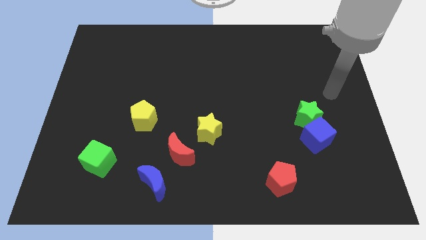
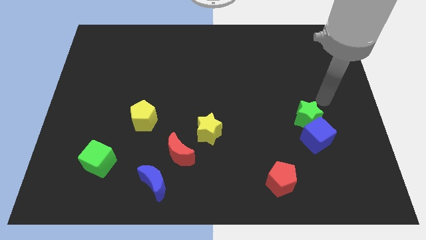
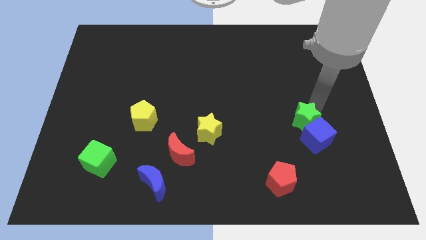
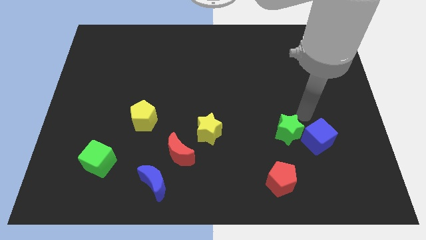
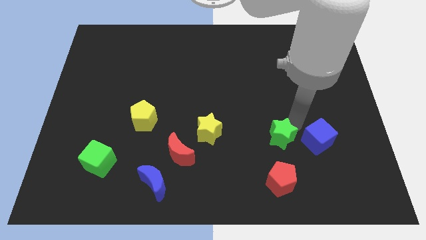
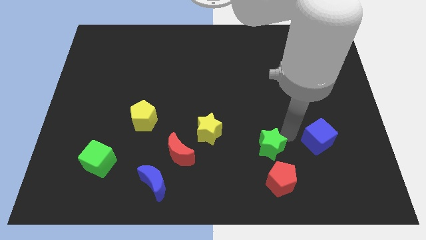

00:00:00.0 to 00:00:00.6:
separate the blue cube from the green star

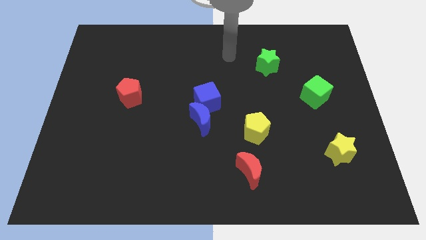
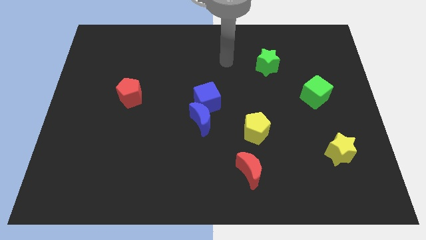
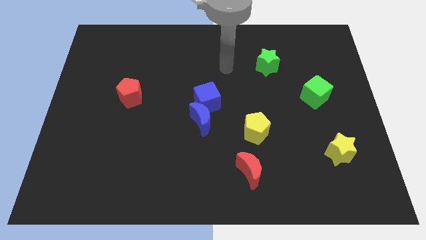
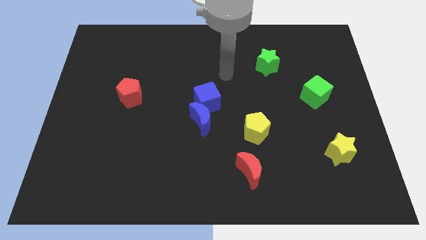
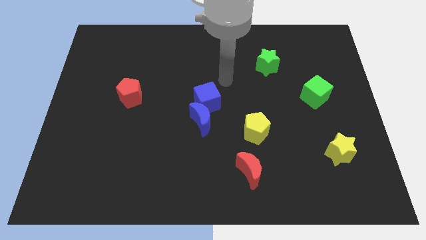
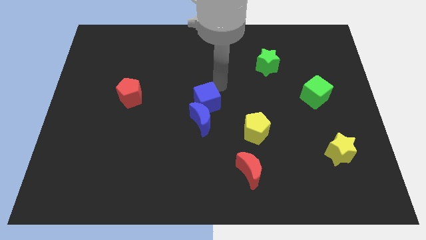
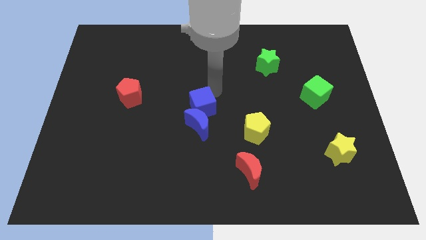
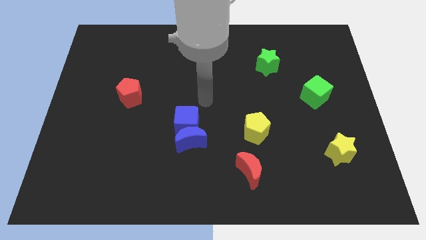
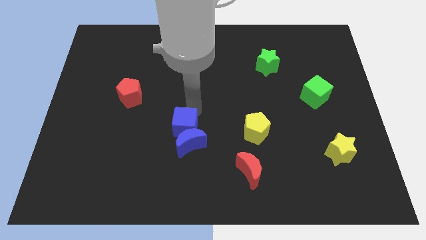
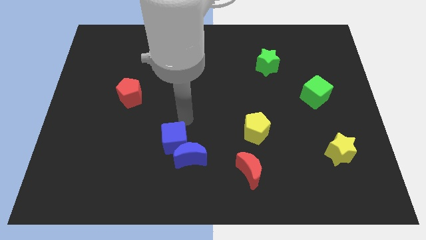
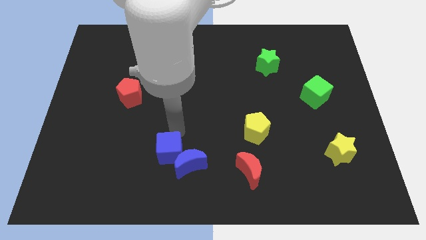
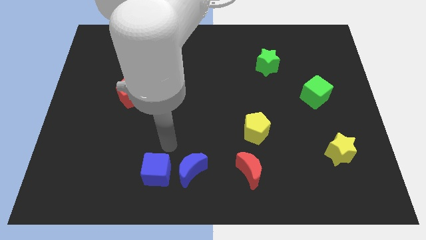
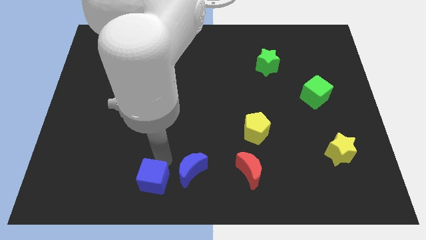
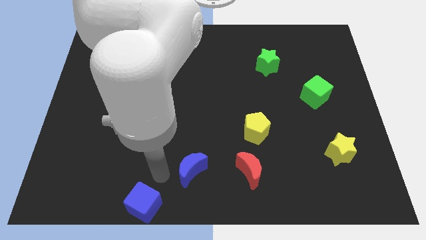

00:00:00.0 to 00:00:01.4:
move the blue moon away from the blue cube

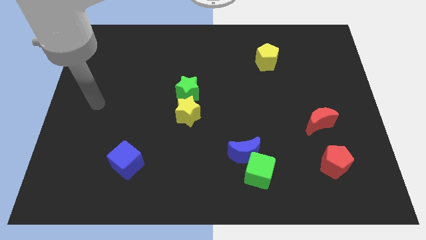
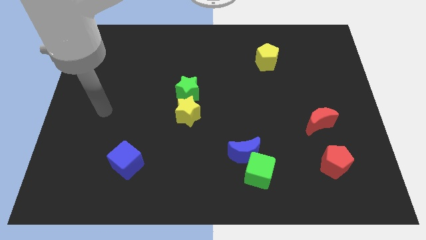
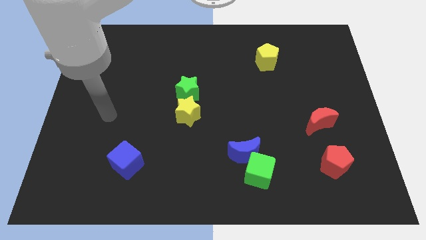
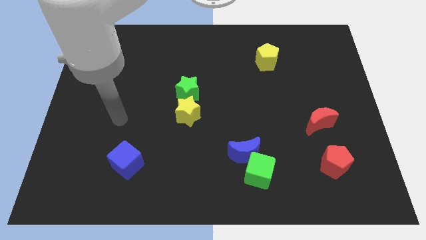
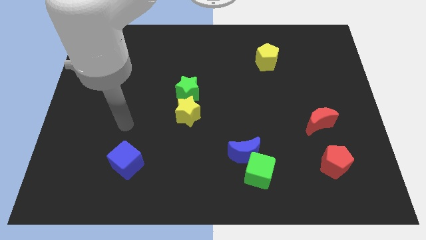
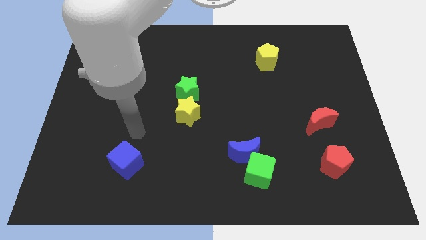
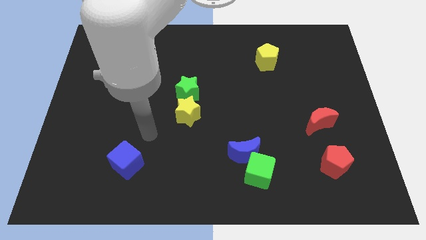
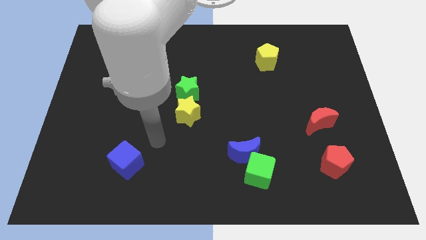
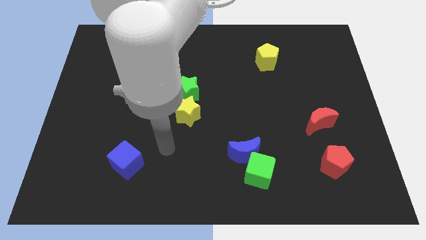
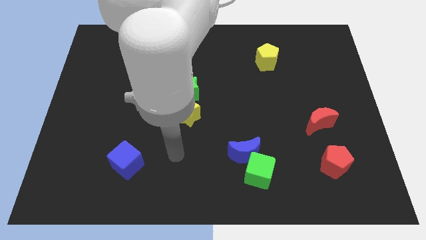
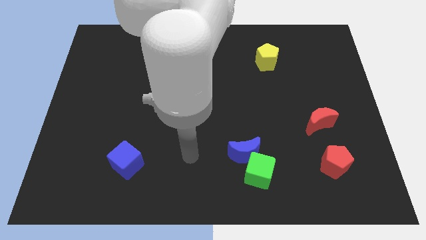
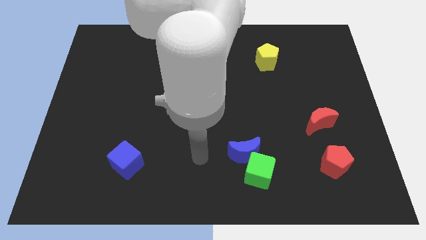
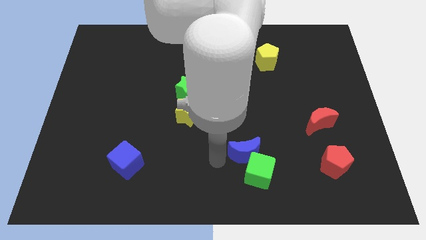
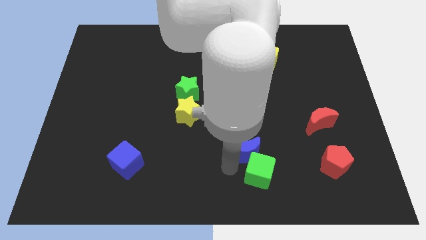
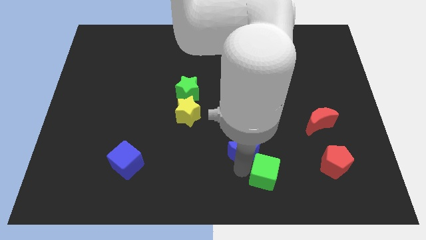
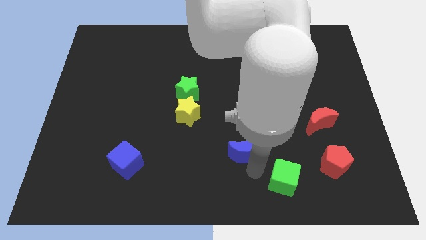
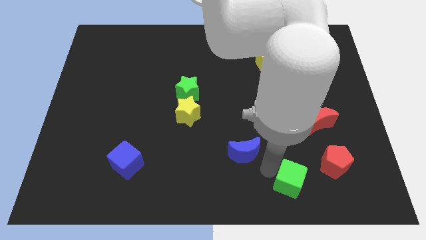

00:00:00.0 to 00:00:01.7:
separate the blue moon from the green cube

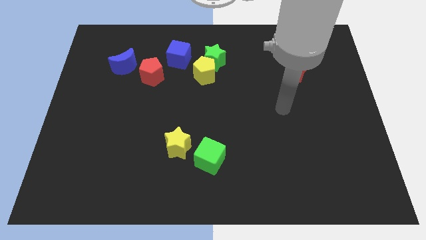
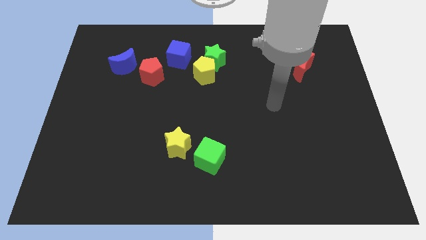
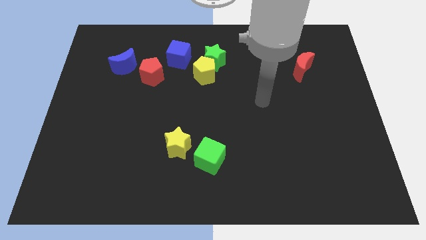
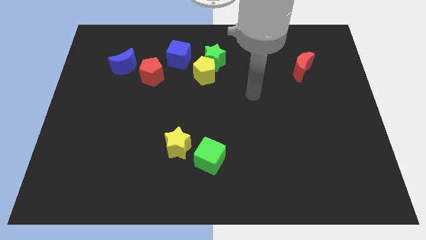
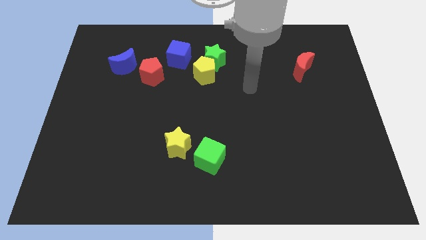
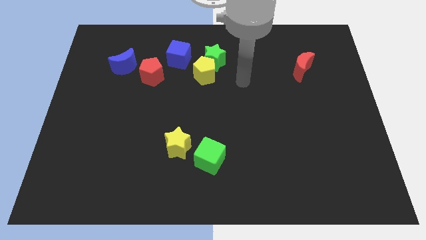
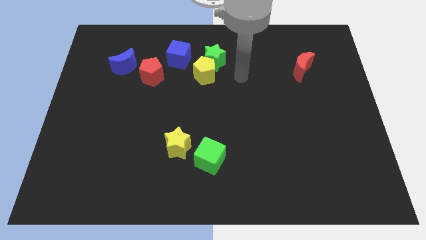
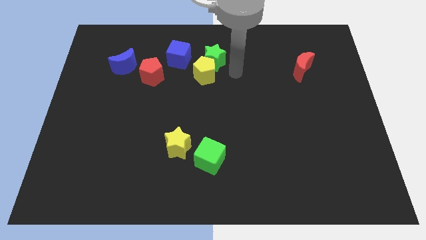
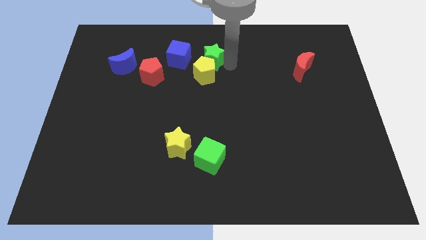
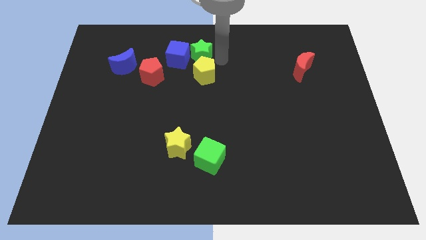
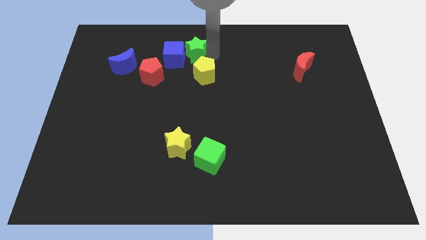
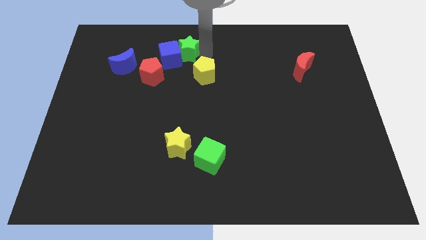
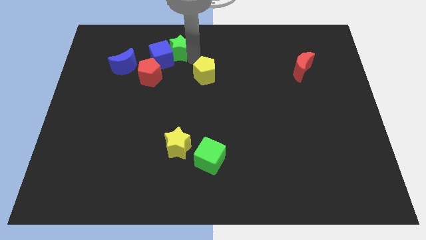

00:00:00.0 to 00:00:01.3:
pull the yellow pentagon apart from the green star and blue cube

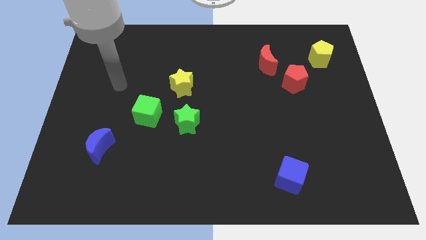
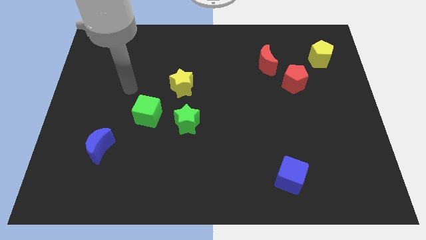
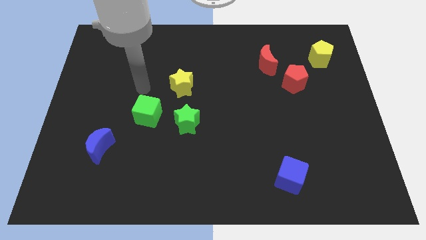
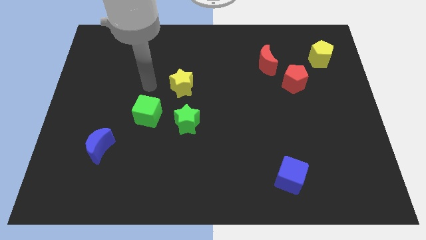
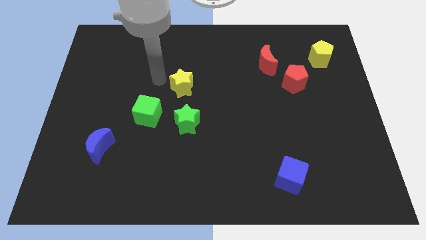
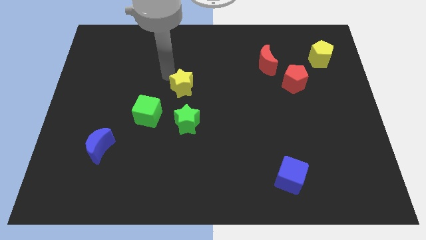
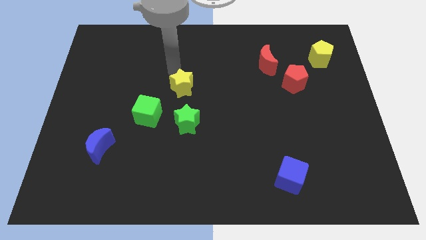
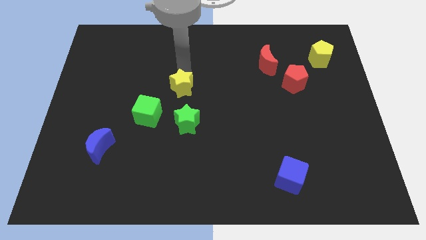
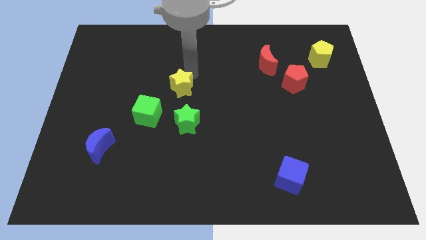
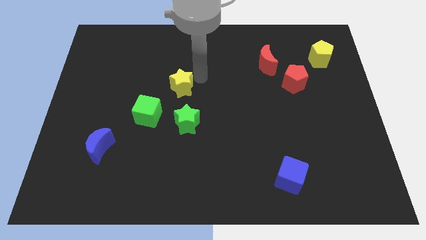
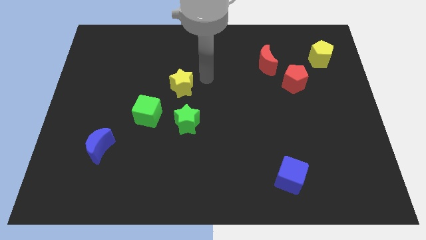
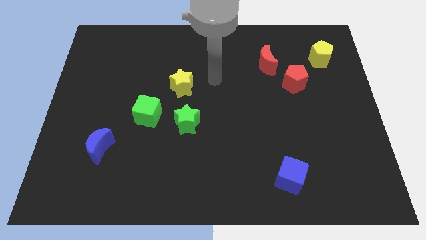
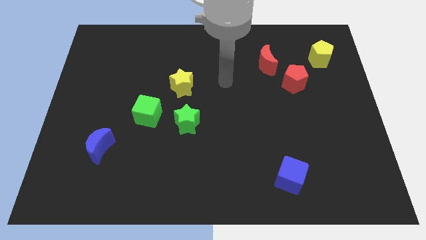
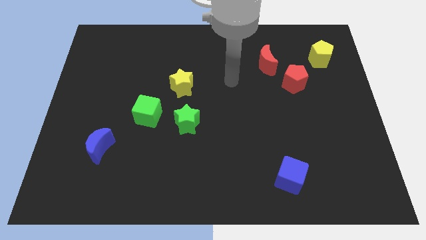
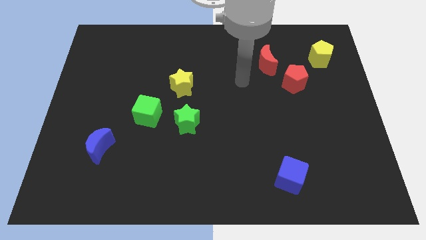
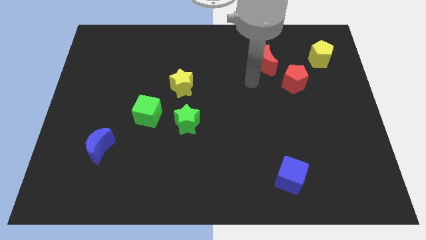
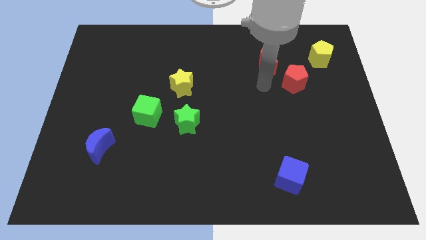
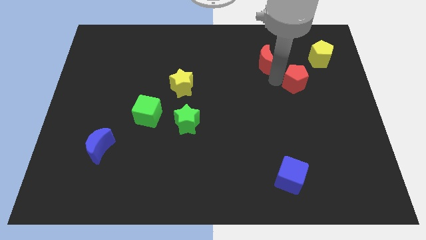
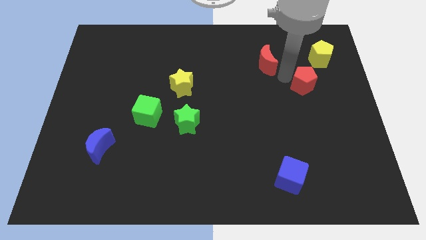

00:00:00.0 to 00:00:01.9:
move the red moon away from the red pentagon

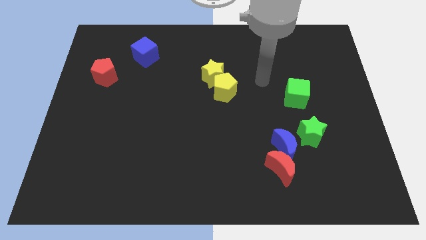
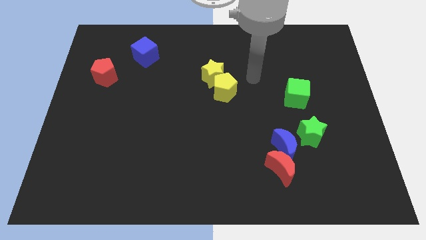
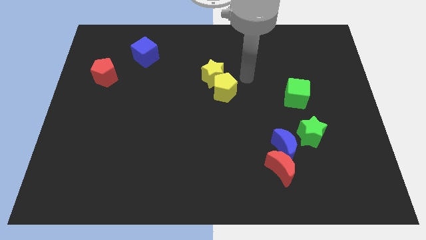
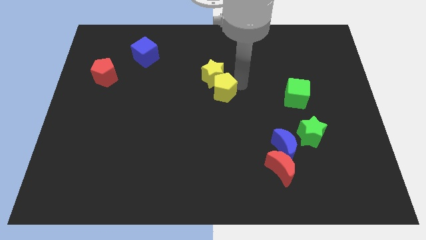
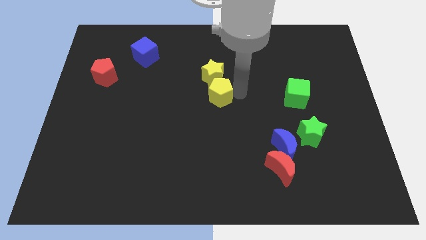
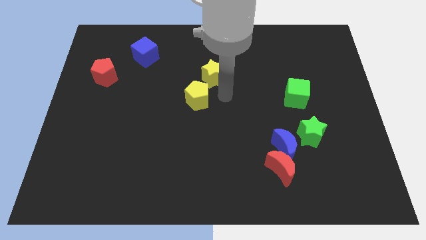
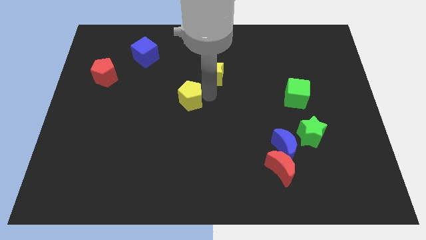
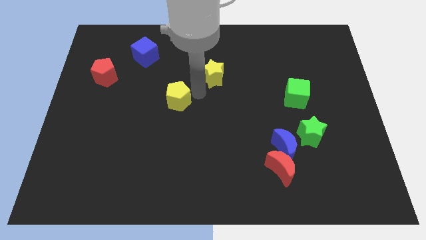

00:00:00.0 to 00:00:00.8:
separate the yellow star from the yellow pentagon

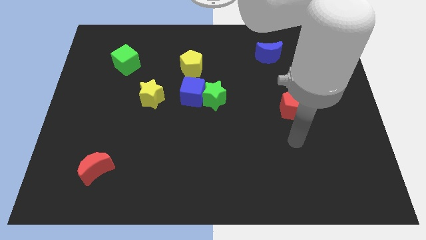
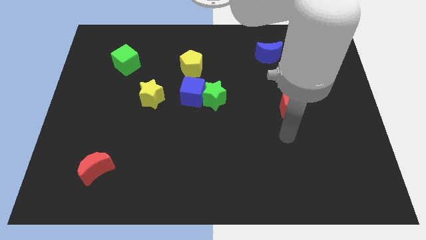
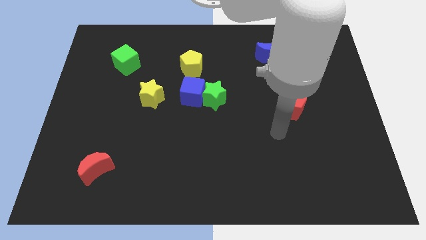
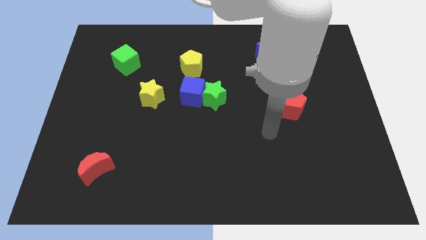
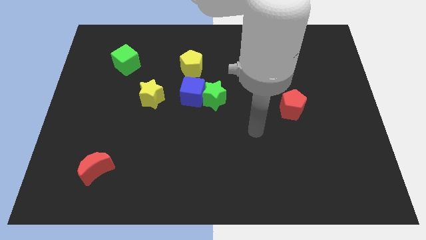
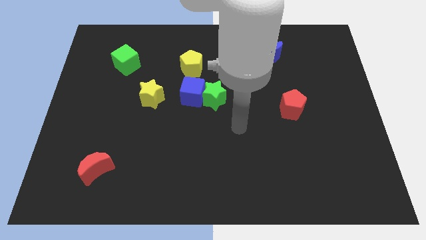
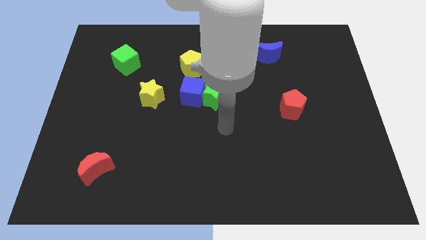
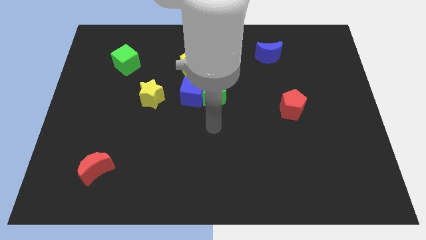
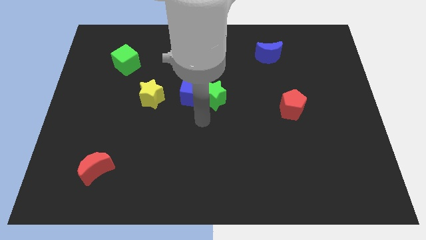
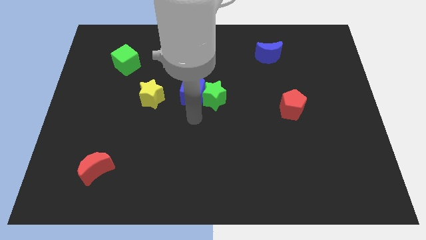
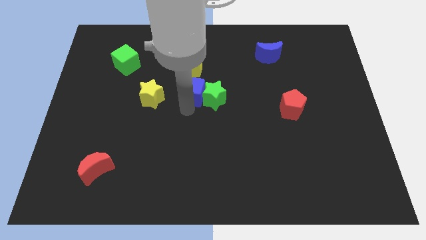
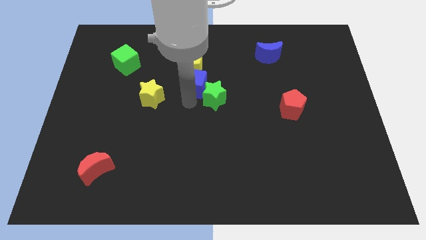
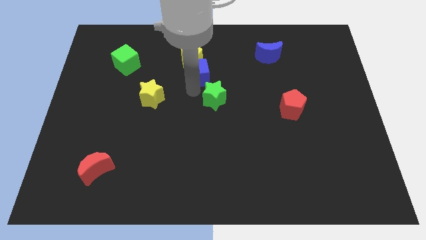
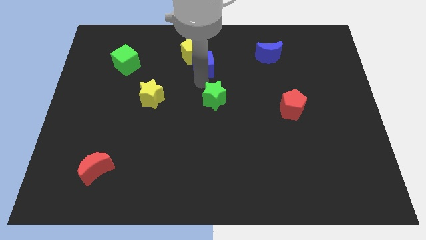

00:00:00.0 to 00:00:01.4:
move the green star away from the blue cube

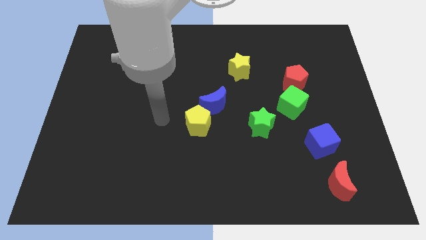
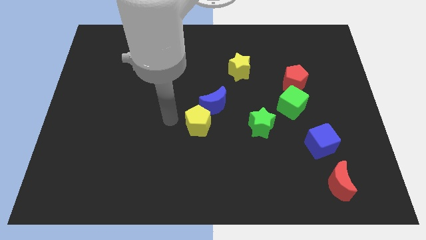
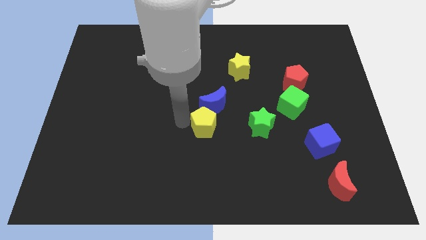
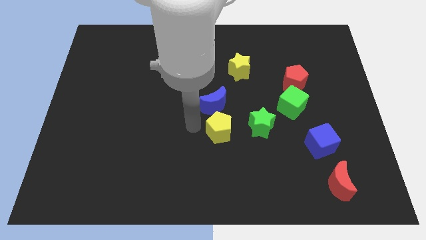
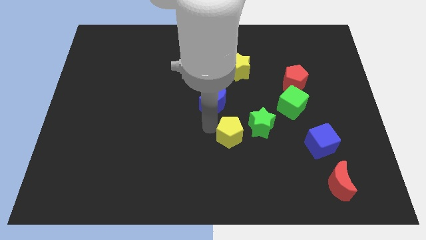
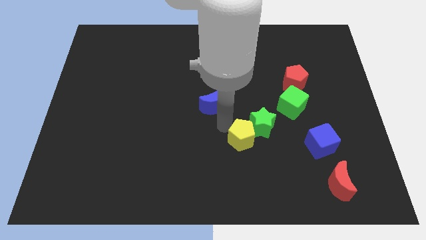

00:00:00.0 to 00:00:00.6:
move the blue moon away from the yellow pentagon
